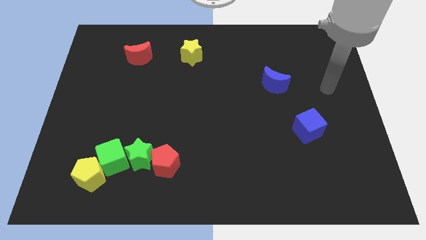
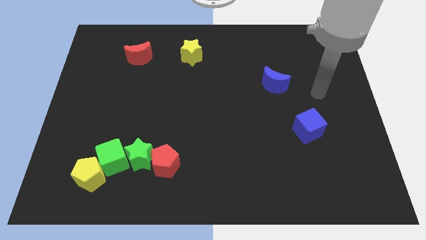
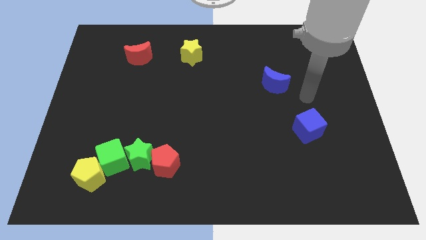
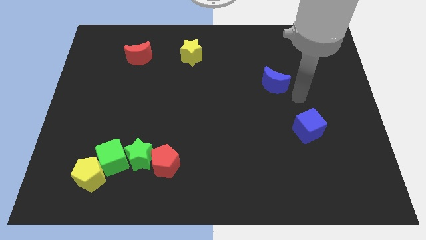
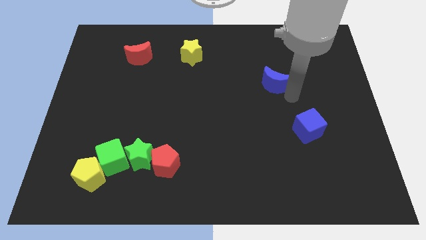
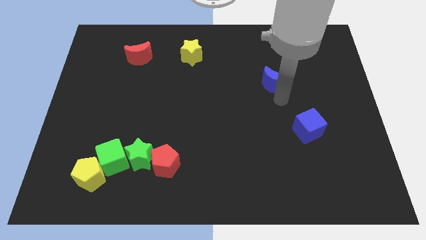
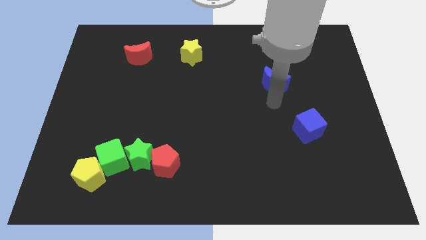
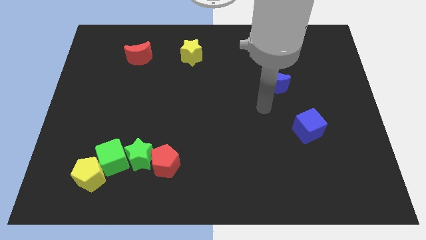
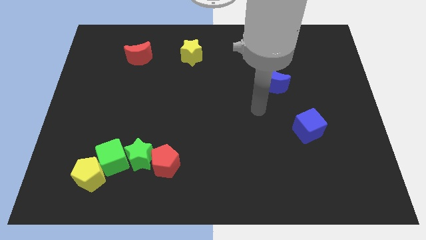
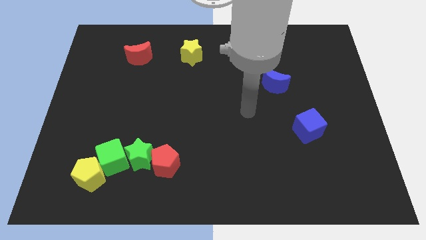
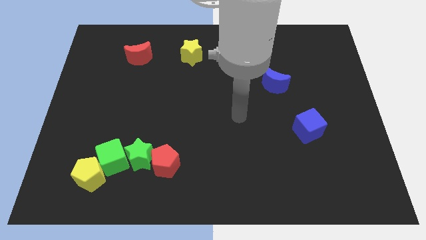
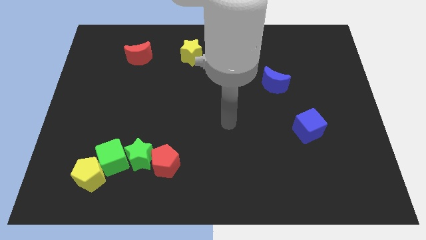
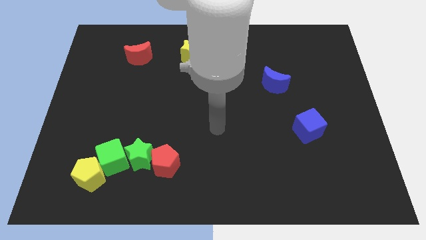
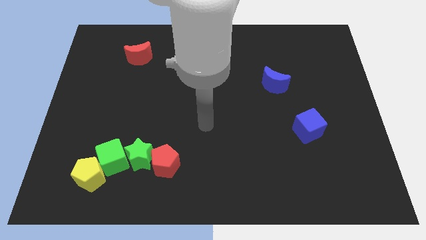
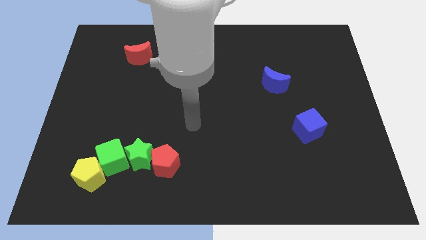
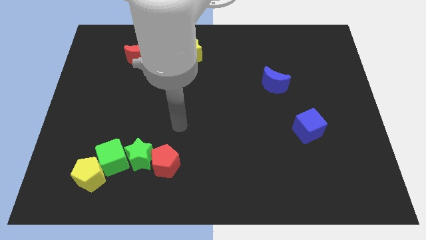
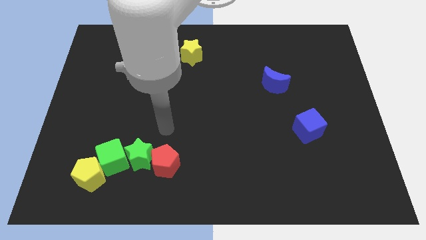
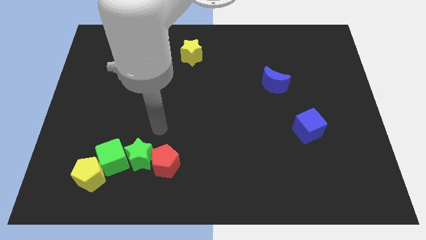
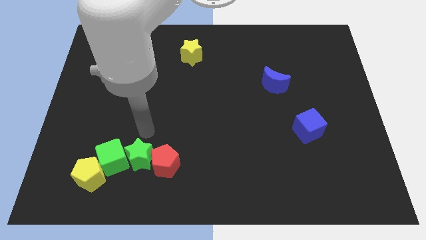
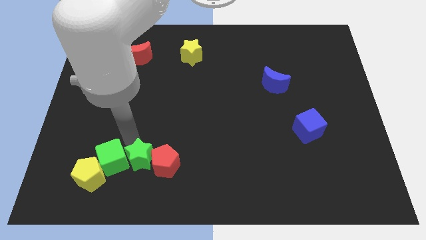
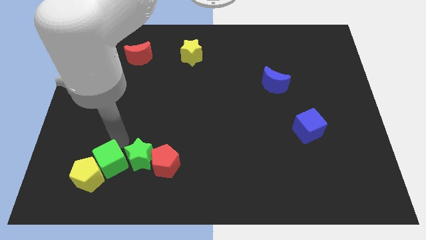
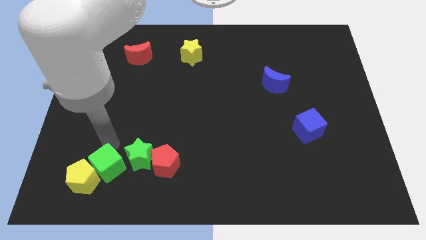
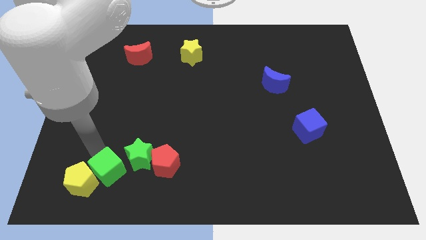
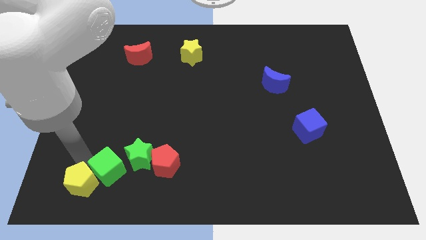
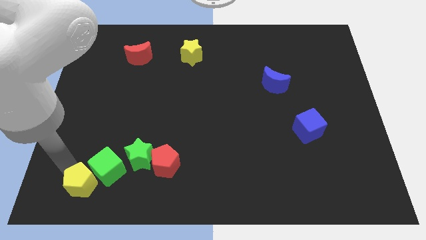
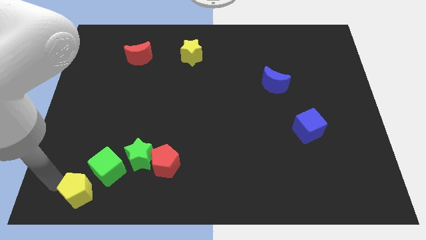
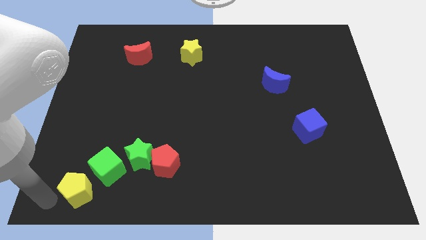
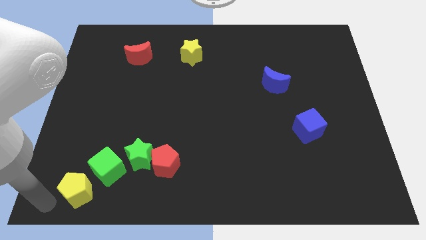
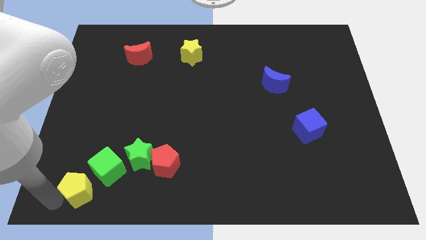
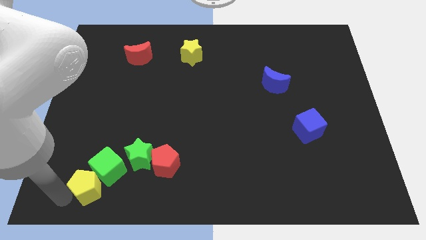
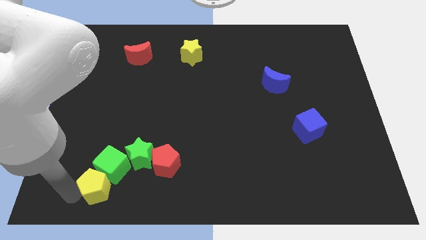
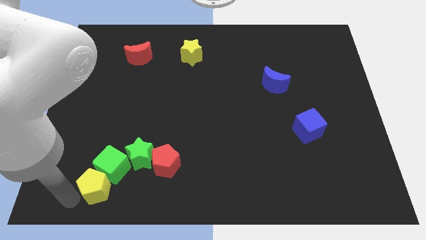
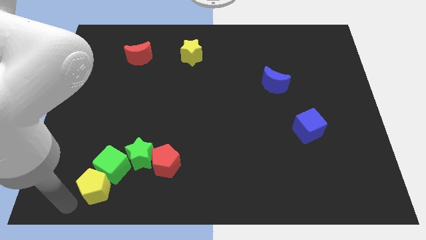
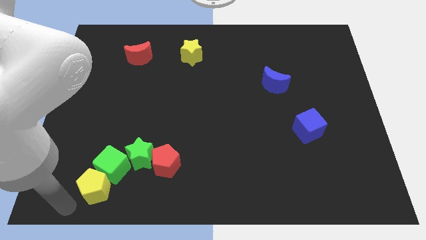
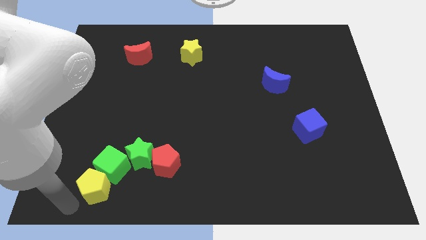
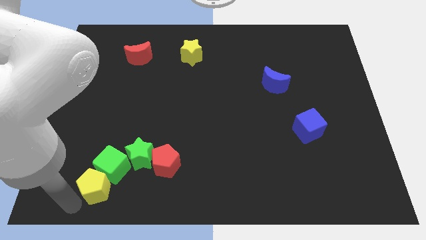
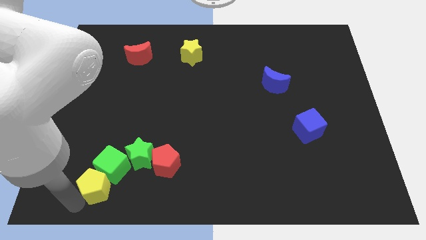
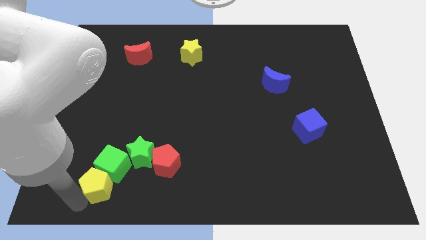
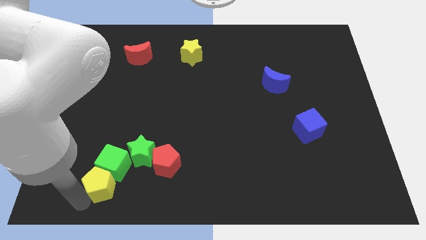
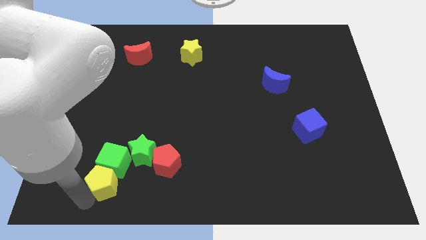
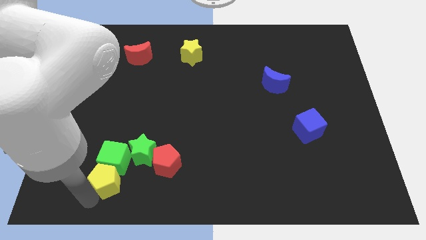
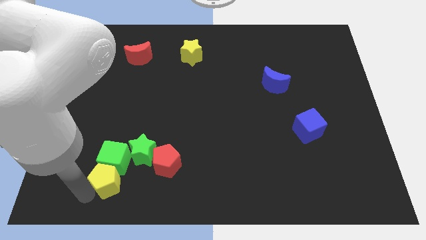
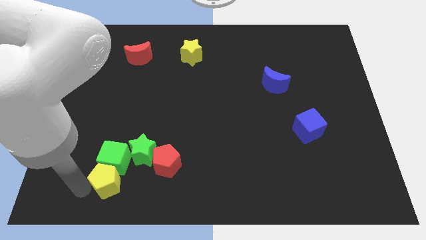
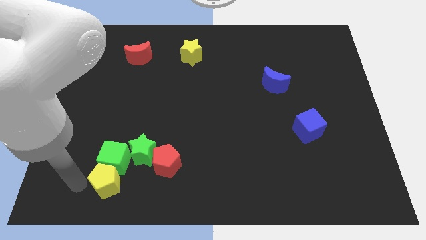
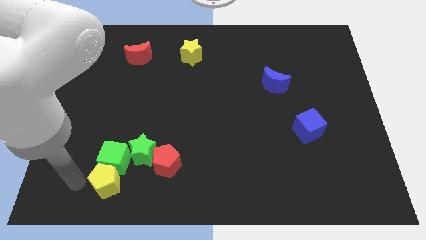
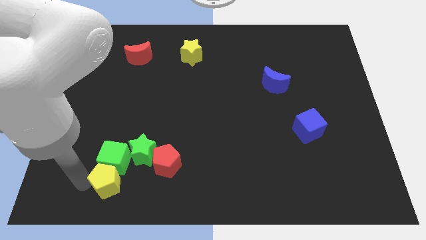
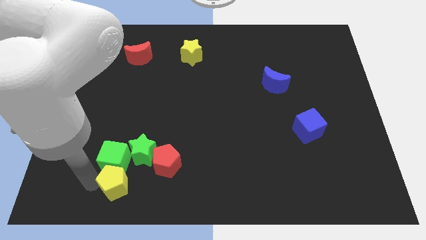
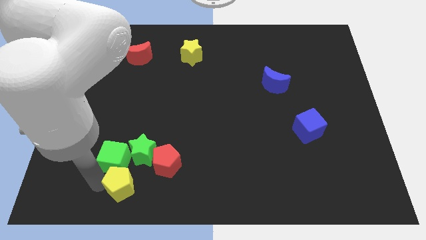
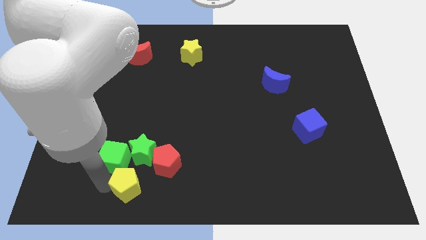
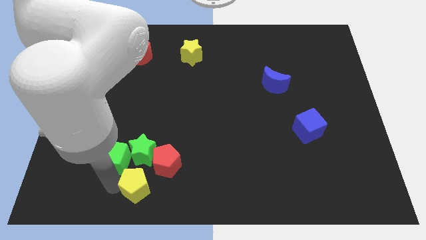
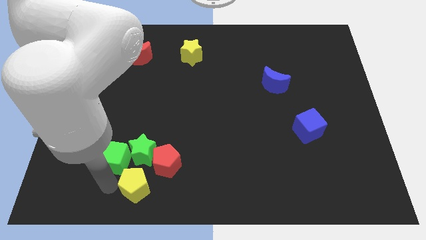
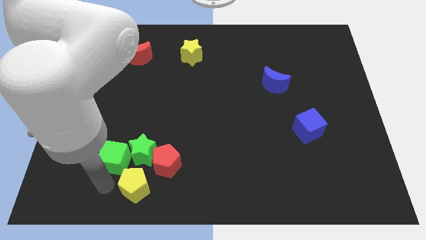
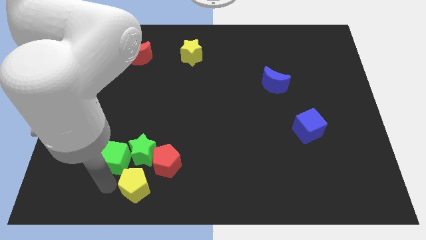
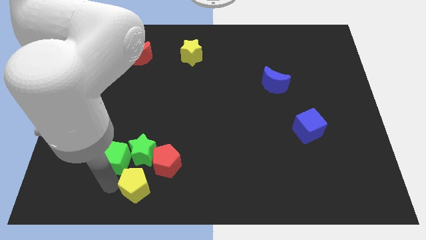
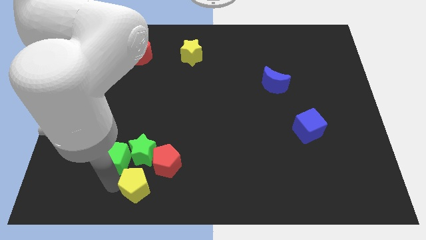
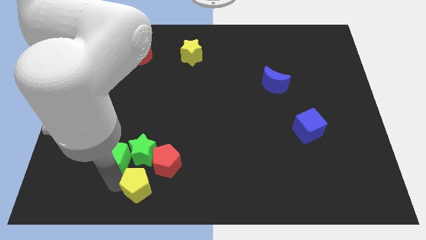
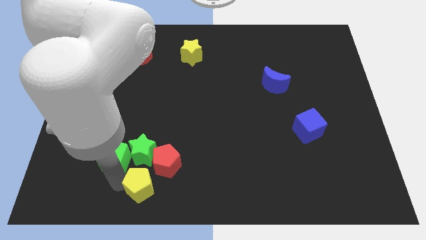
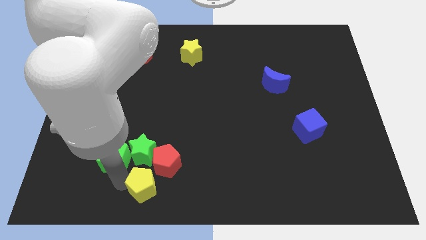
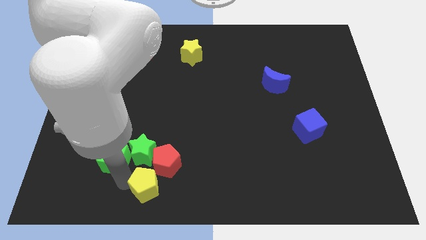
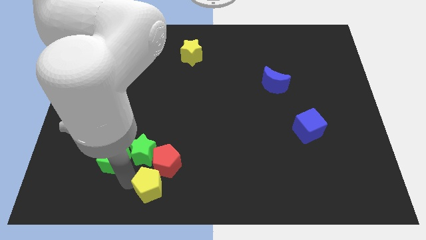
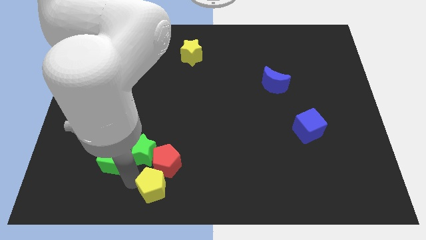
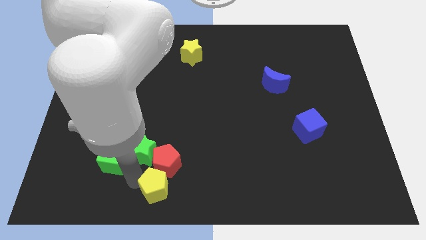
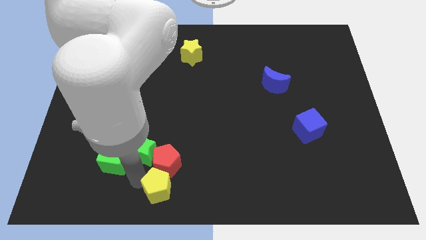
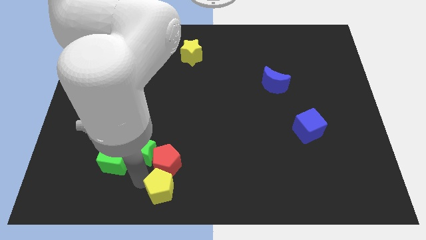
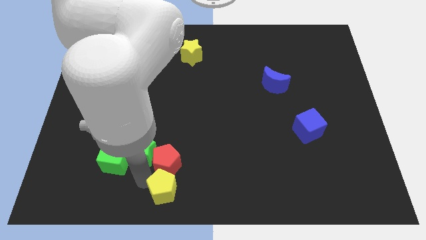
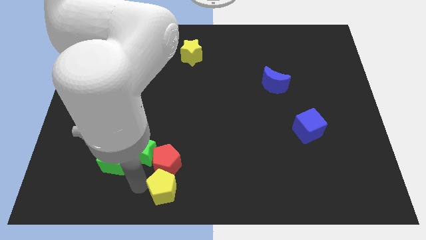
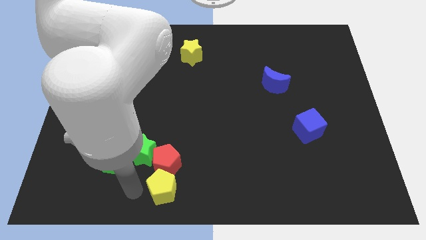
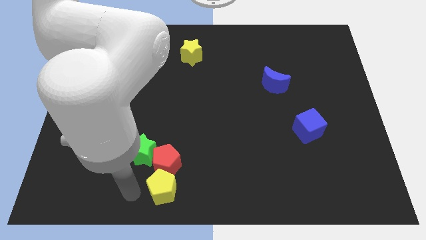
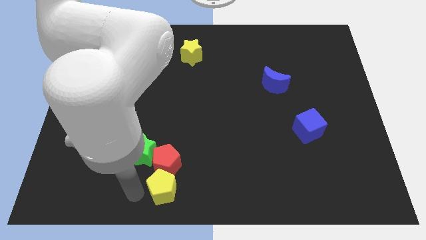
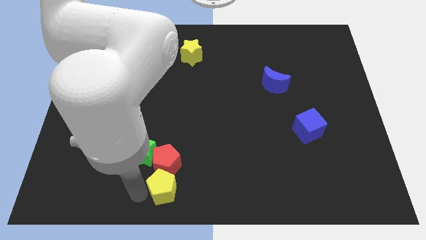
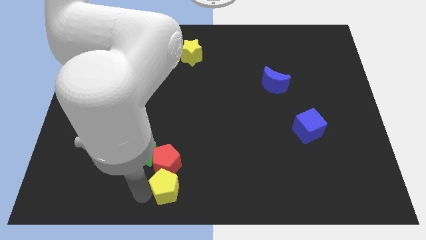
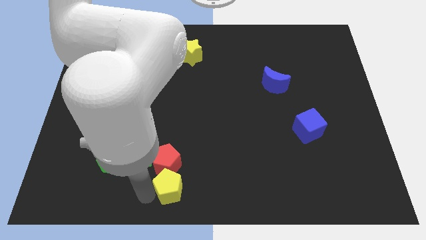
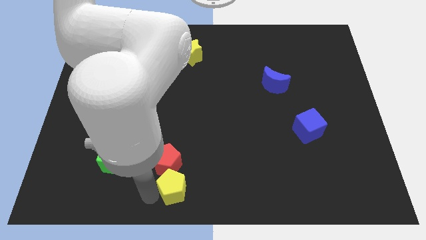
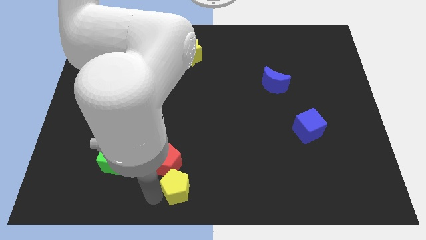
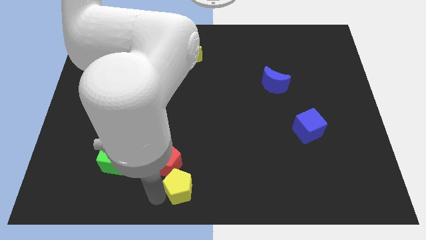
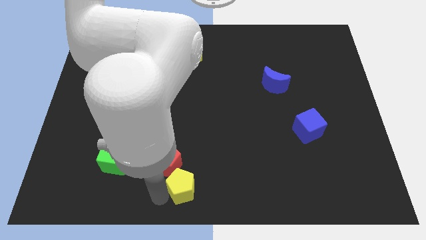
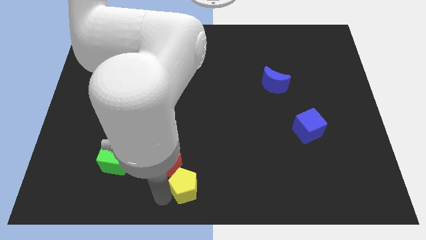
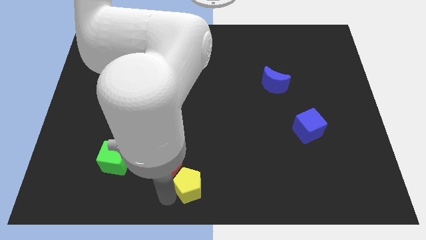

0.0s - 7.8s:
move the yellow pentagon right
